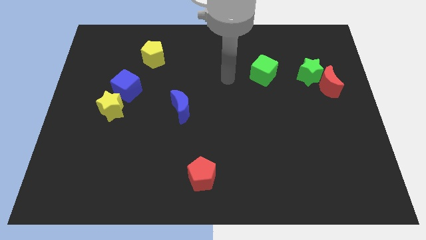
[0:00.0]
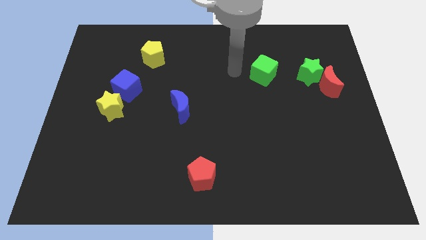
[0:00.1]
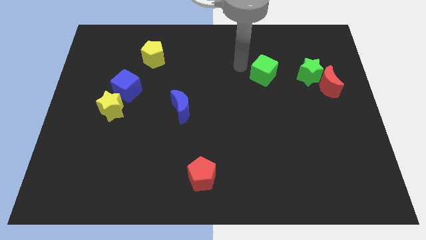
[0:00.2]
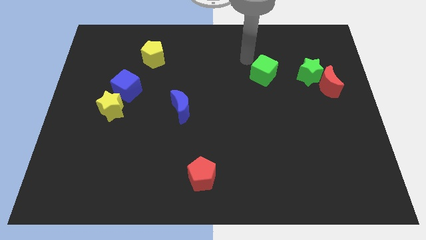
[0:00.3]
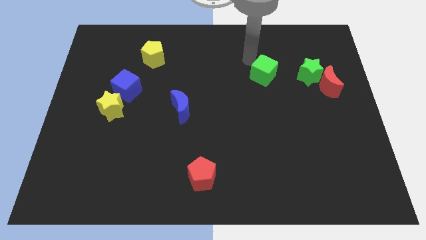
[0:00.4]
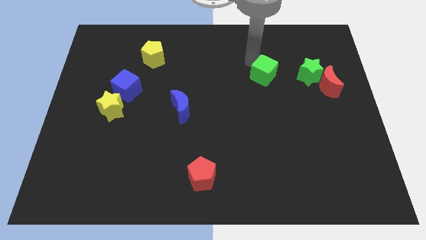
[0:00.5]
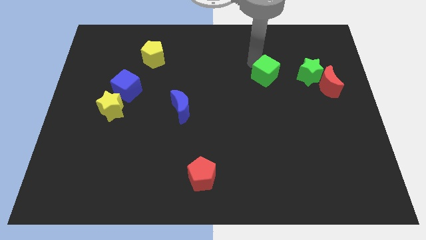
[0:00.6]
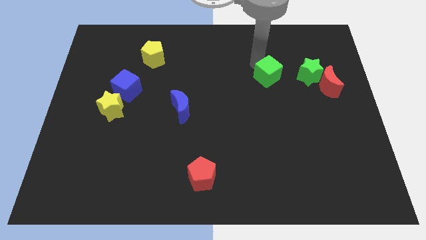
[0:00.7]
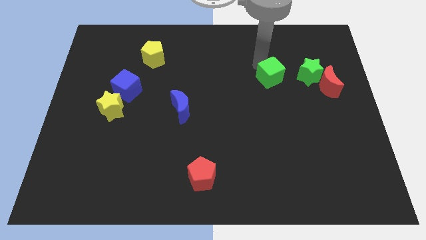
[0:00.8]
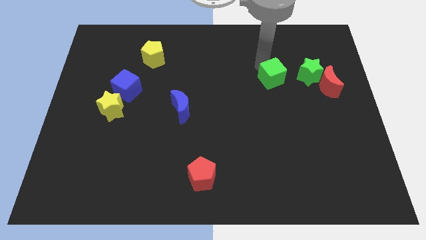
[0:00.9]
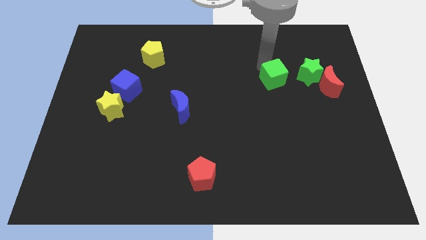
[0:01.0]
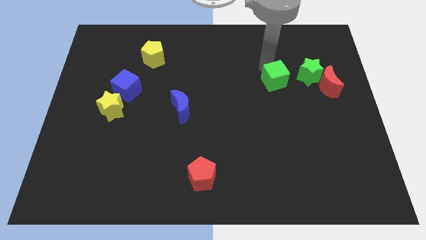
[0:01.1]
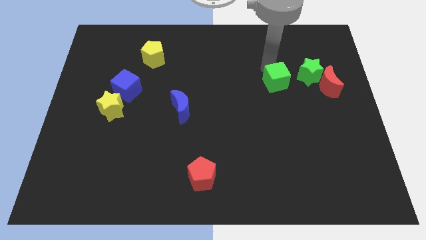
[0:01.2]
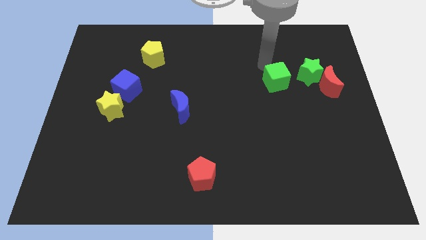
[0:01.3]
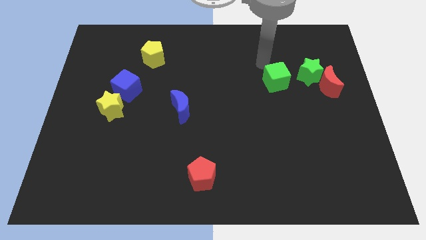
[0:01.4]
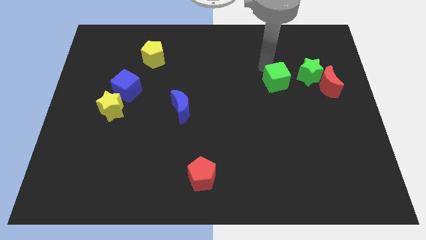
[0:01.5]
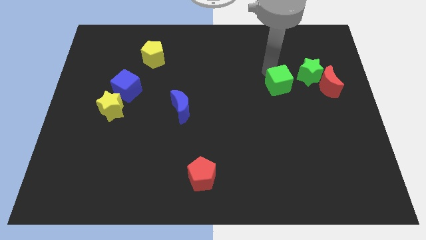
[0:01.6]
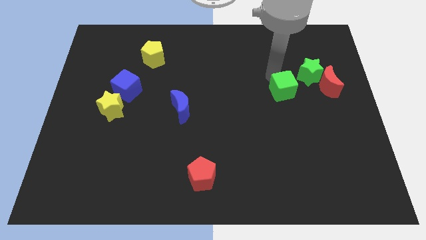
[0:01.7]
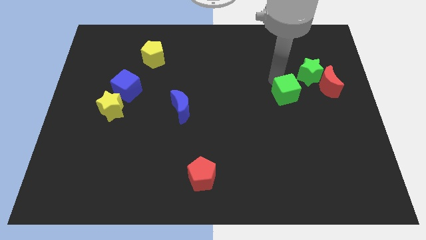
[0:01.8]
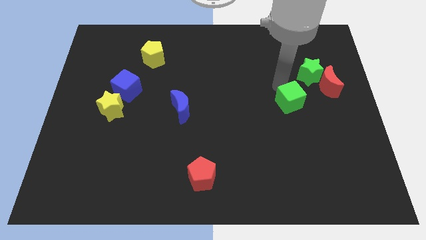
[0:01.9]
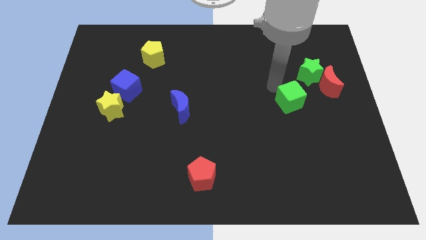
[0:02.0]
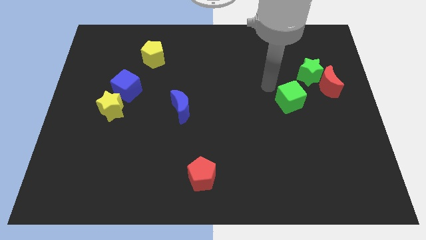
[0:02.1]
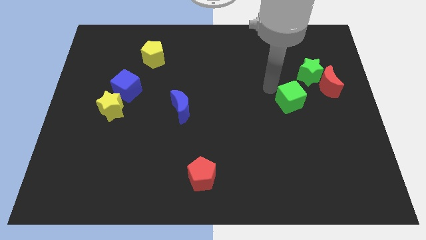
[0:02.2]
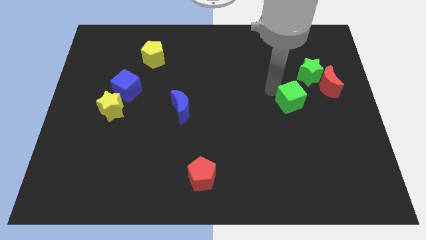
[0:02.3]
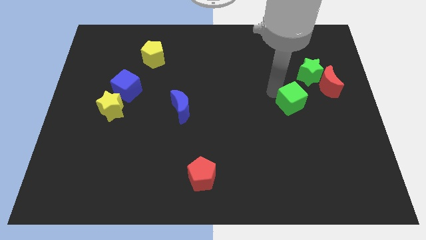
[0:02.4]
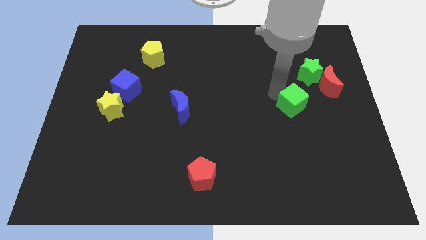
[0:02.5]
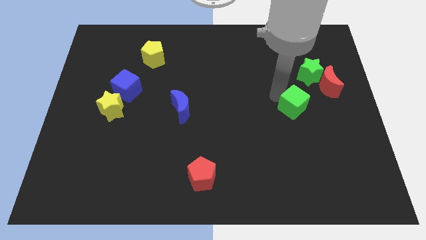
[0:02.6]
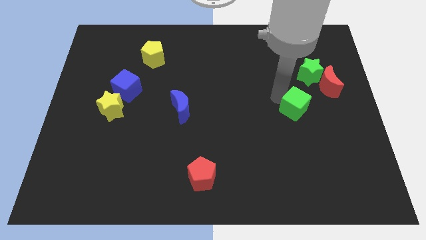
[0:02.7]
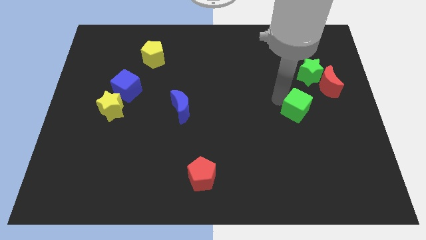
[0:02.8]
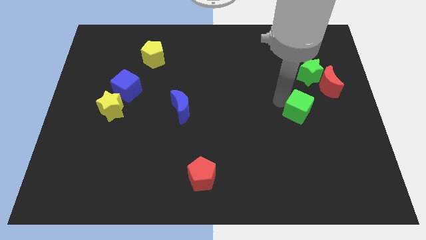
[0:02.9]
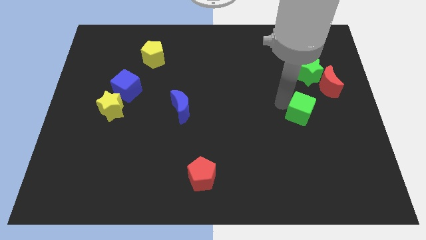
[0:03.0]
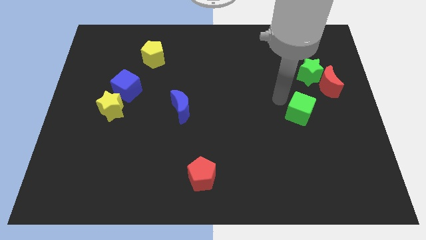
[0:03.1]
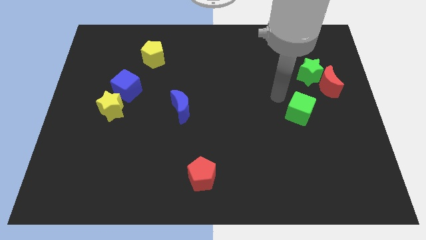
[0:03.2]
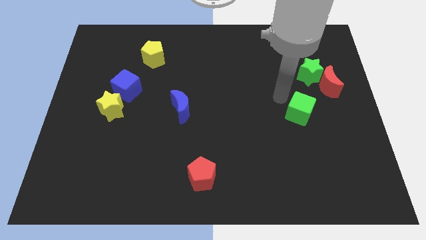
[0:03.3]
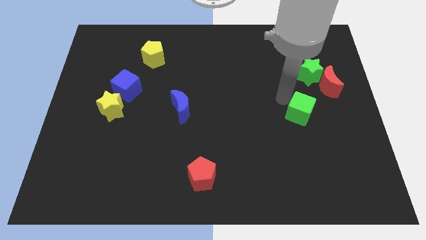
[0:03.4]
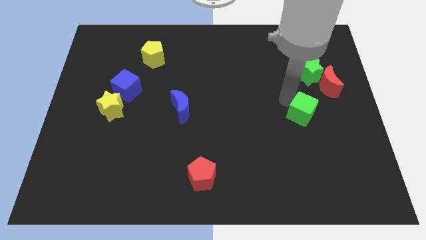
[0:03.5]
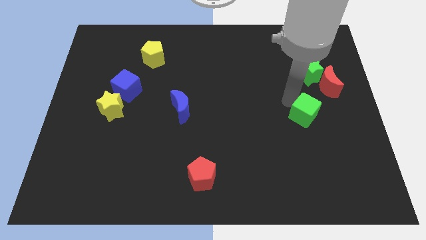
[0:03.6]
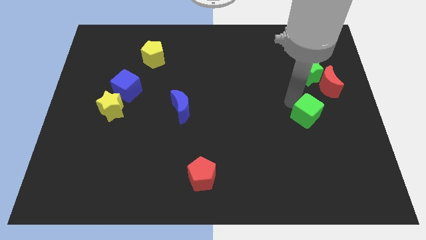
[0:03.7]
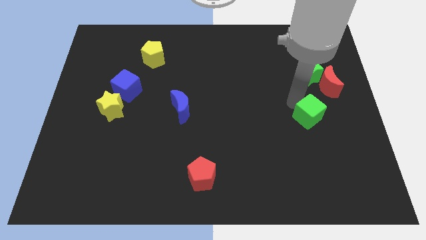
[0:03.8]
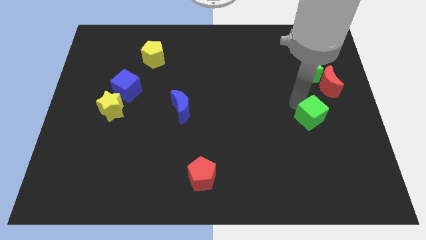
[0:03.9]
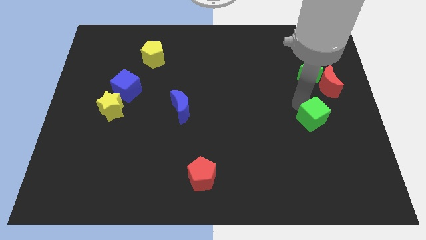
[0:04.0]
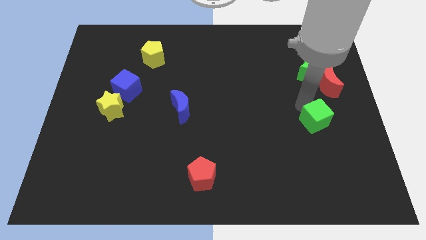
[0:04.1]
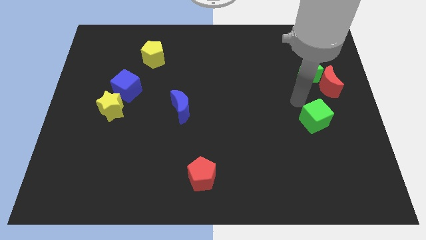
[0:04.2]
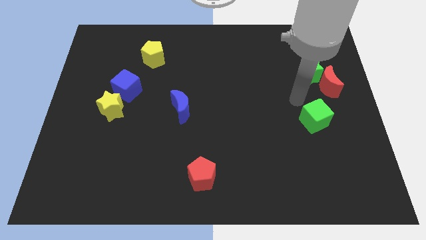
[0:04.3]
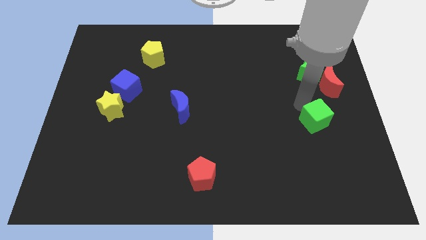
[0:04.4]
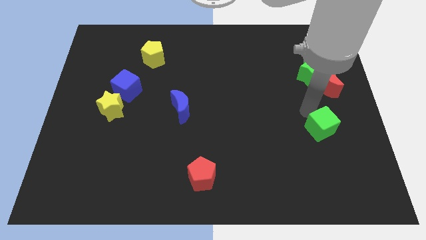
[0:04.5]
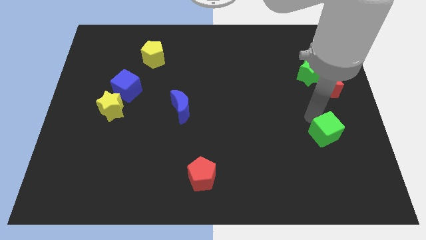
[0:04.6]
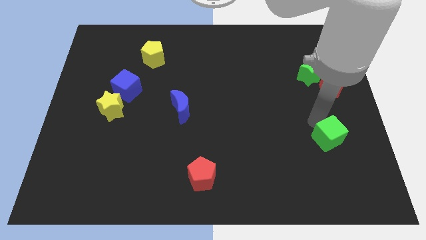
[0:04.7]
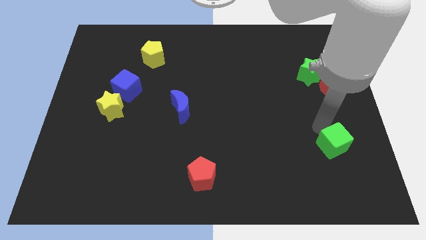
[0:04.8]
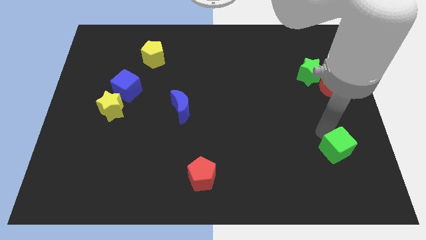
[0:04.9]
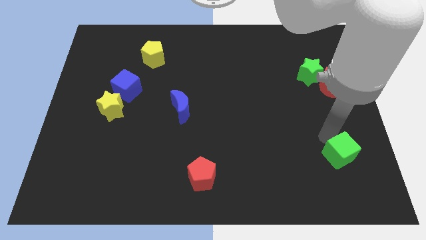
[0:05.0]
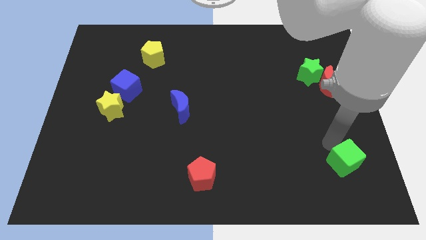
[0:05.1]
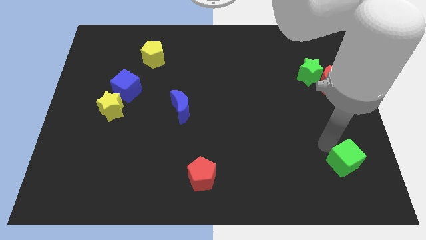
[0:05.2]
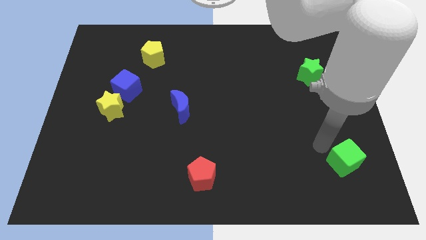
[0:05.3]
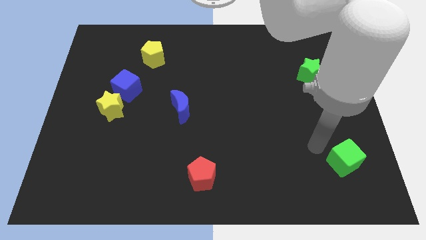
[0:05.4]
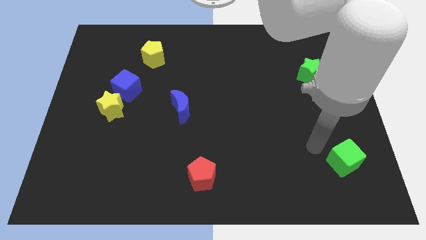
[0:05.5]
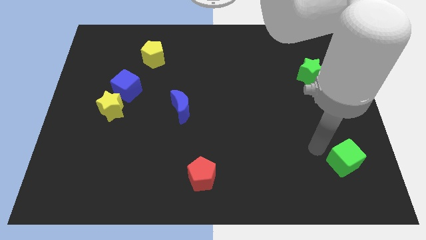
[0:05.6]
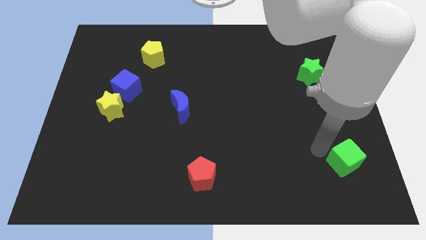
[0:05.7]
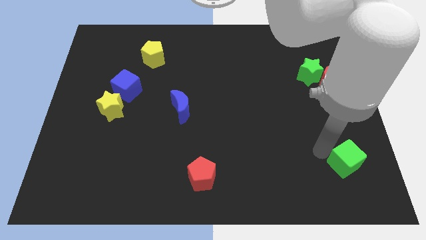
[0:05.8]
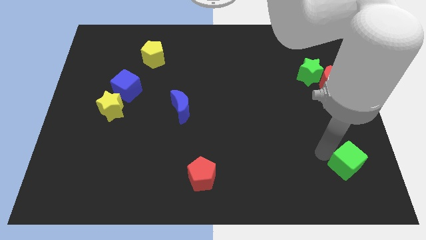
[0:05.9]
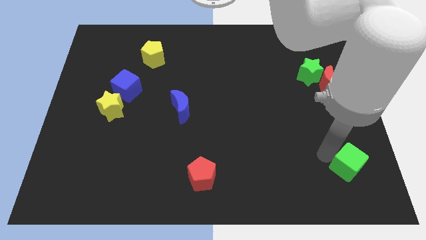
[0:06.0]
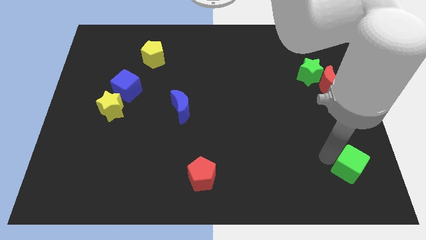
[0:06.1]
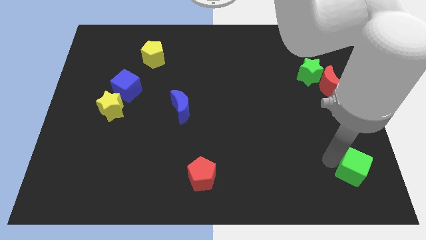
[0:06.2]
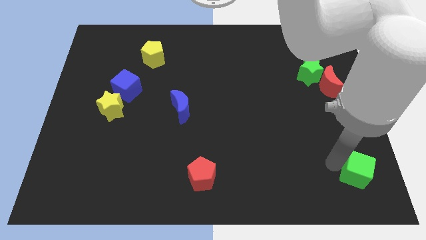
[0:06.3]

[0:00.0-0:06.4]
put the green cube to the lower right corner
